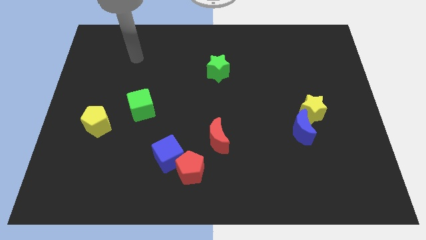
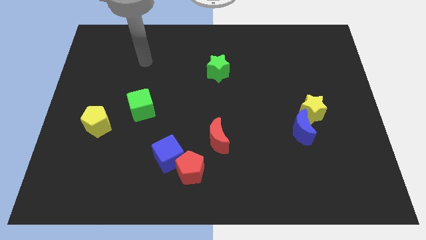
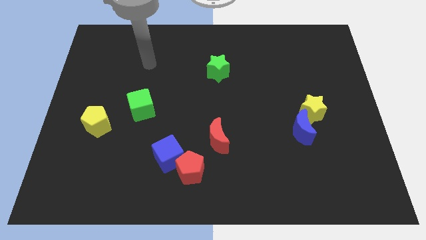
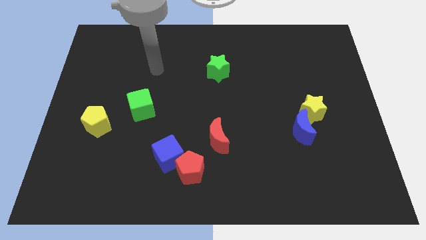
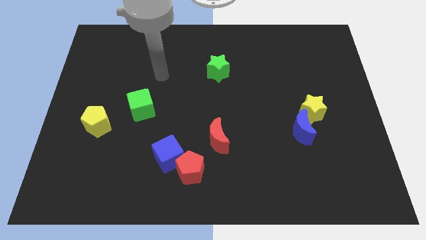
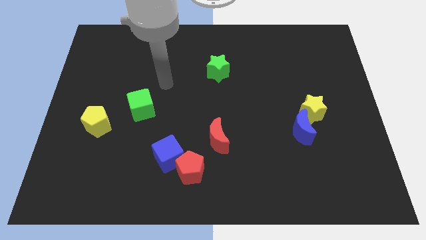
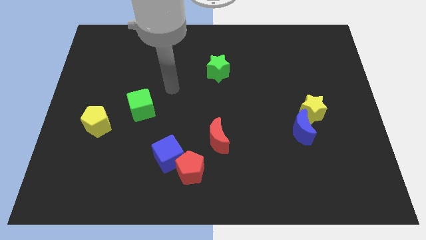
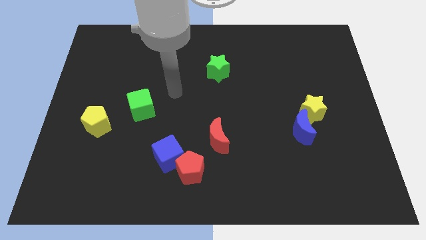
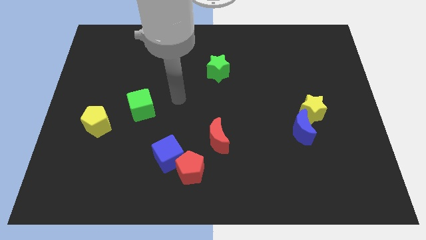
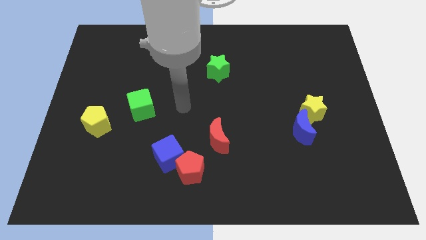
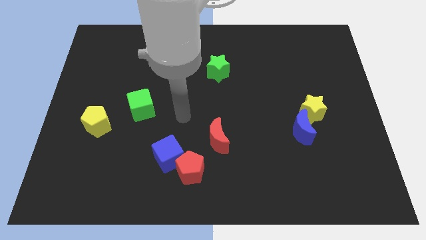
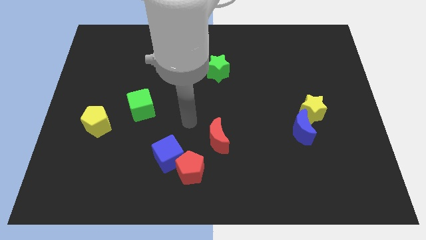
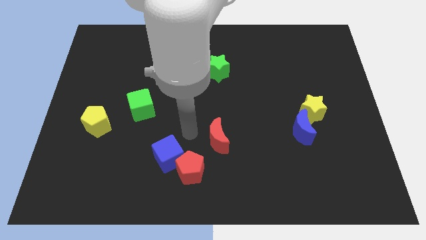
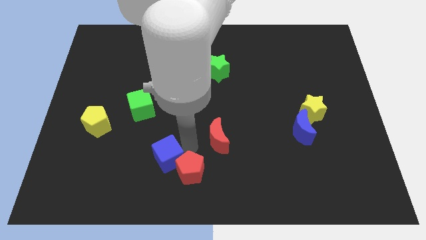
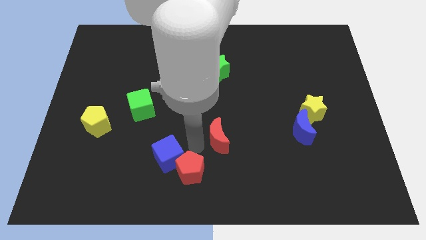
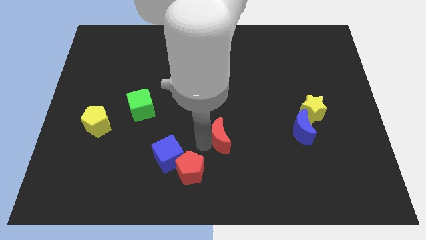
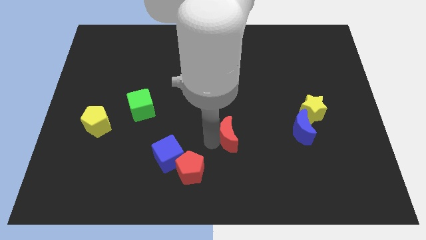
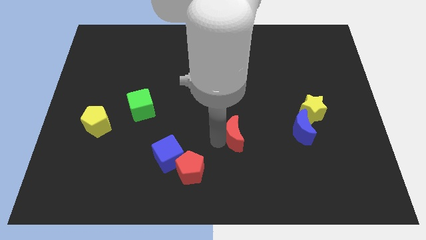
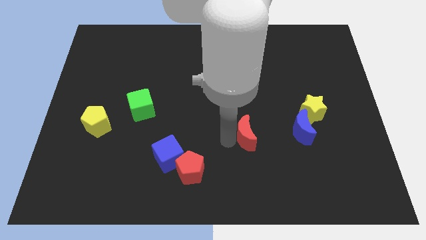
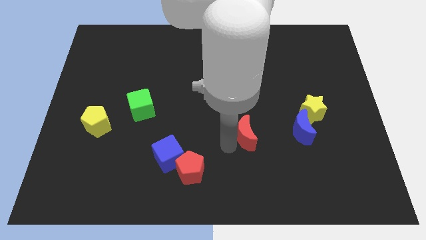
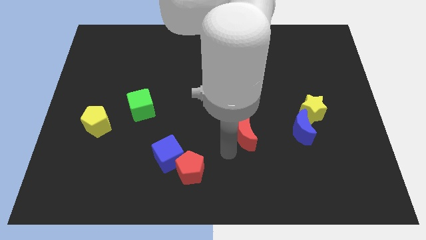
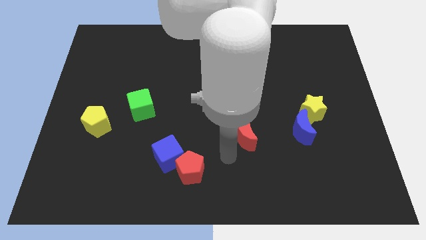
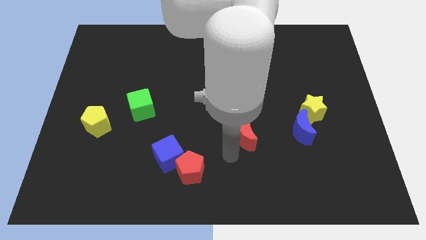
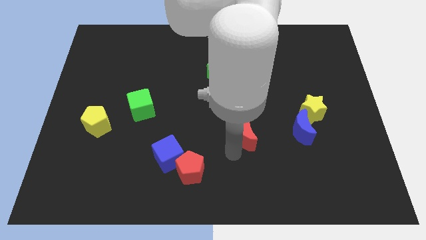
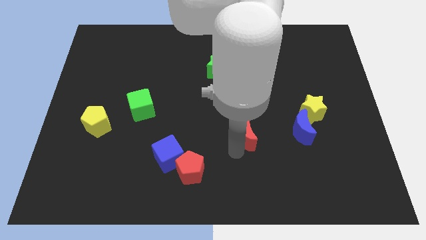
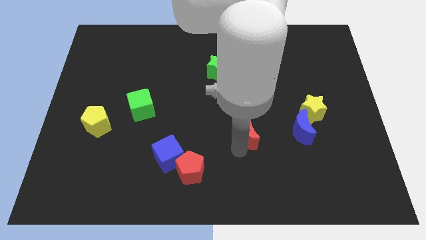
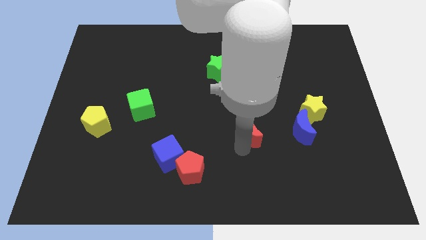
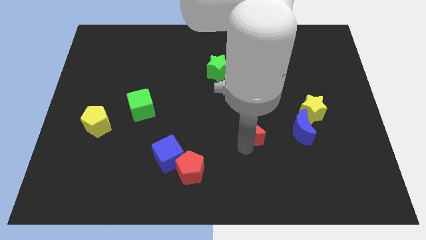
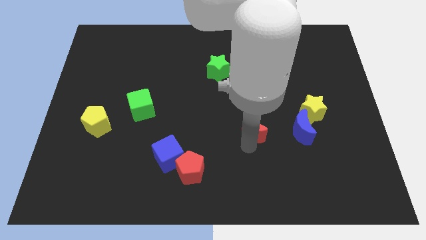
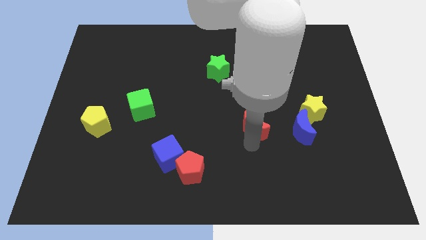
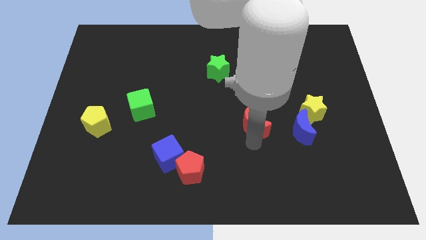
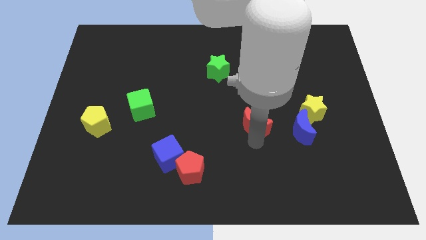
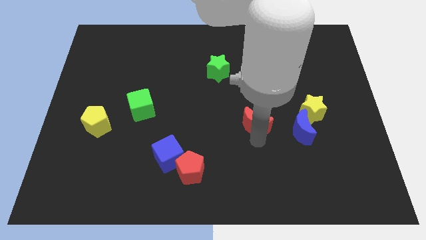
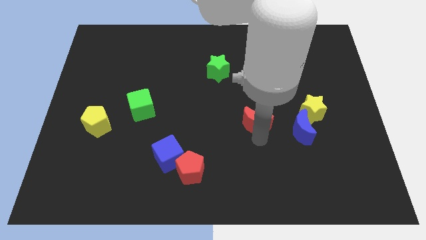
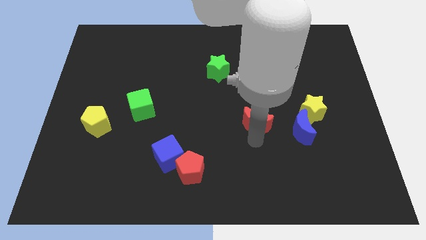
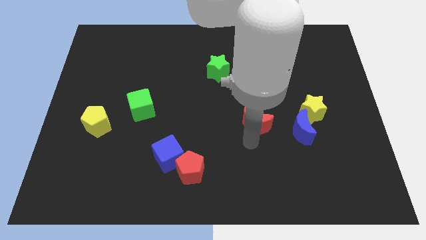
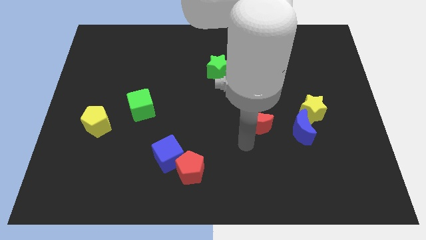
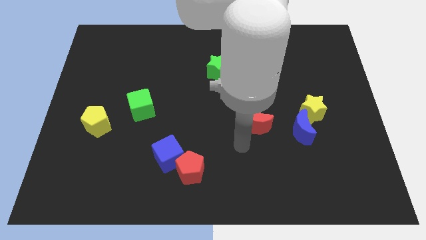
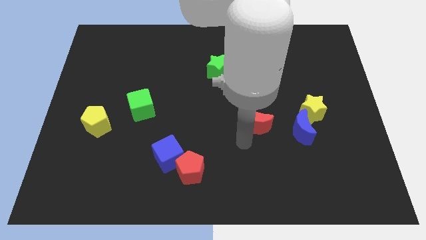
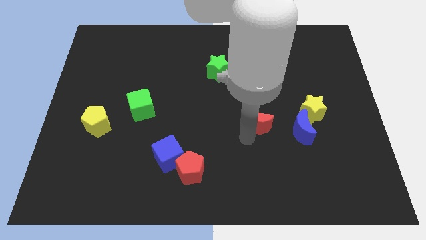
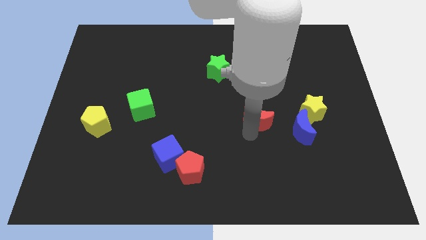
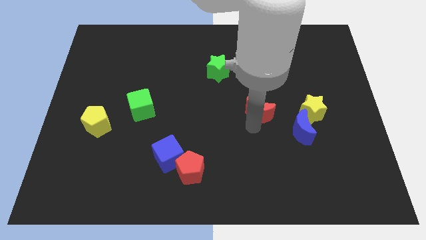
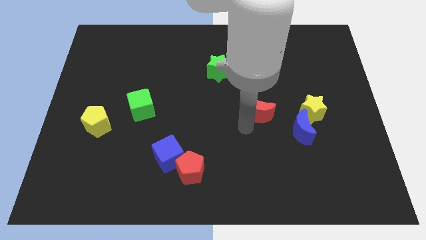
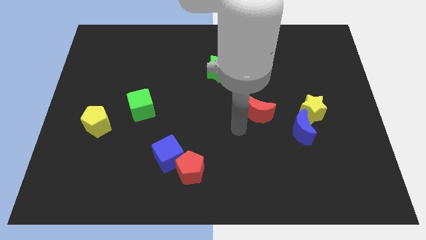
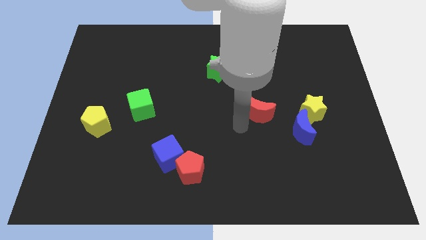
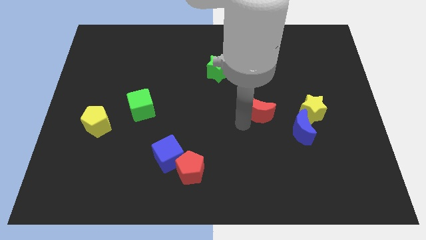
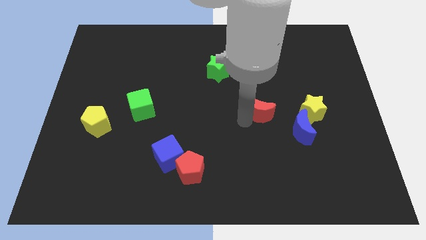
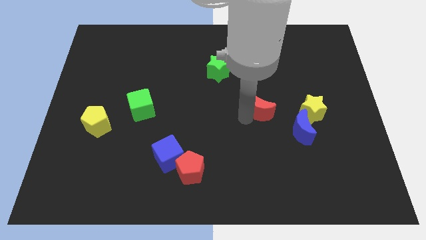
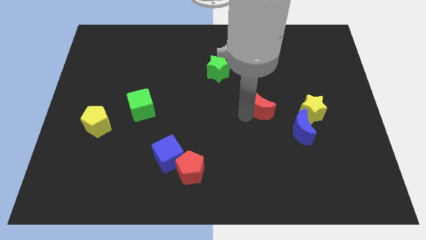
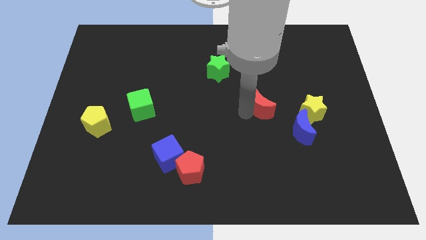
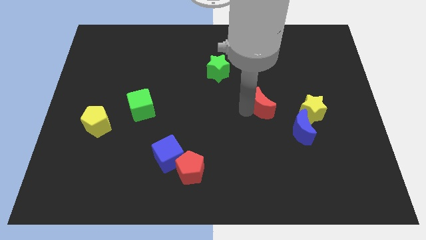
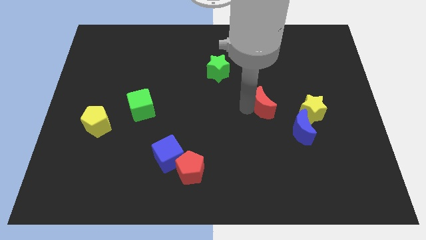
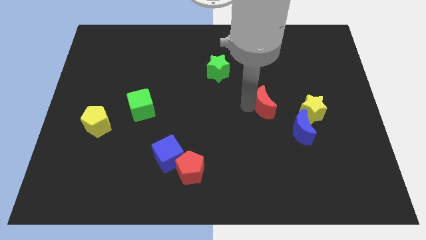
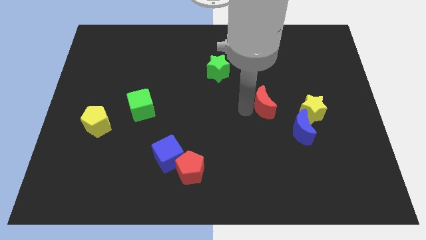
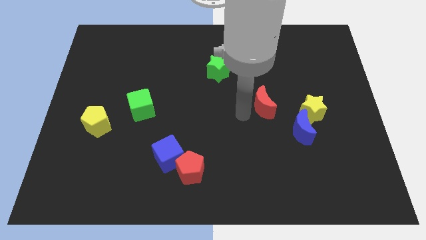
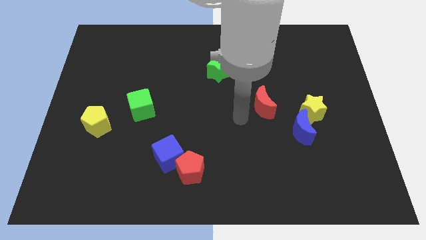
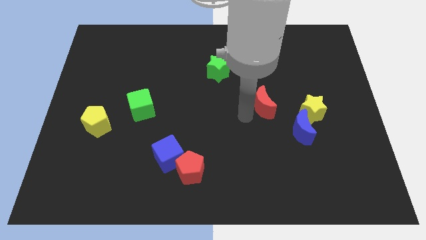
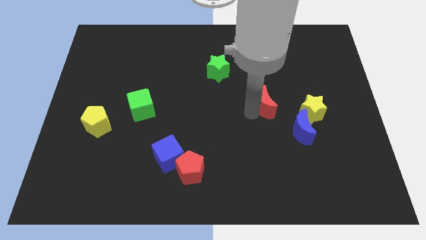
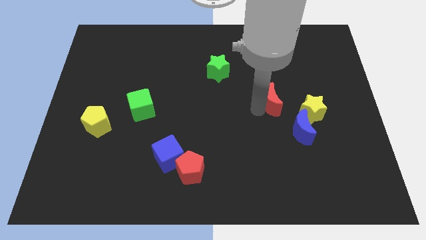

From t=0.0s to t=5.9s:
push the red moon to the top left side of the yellow star
